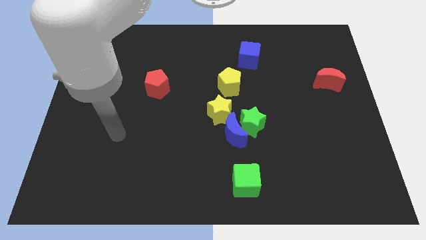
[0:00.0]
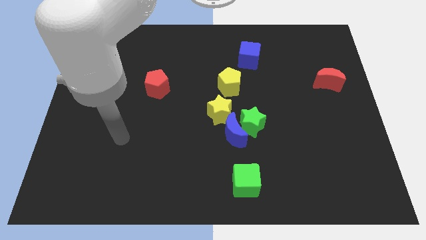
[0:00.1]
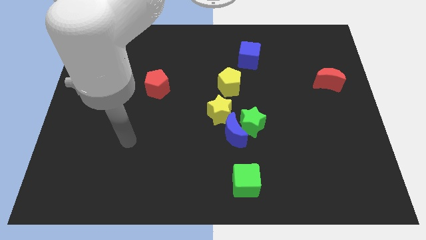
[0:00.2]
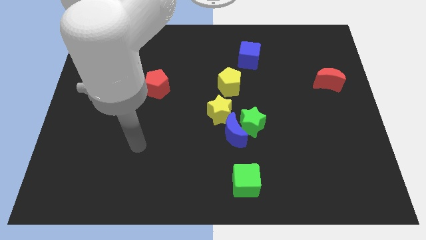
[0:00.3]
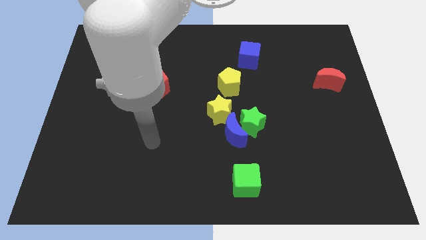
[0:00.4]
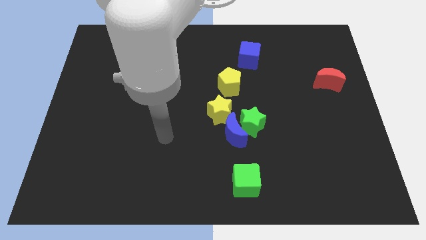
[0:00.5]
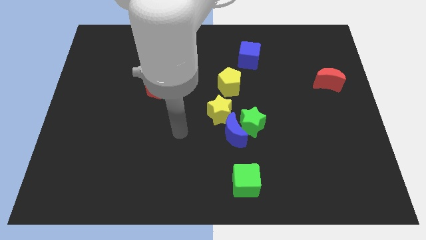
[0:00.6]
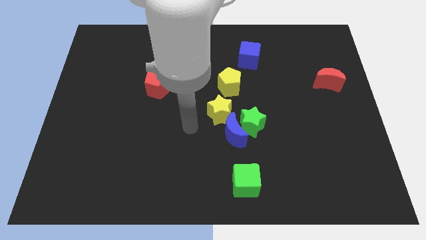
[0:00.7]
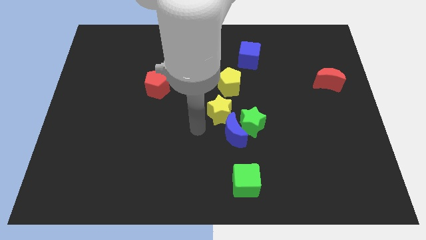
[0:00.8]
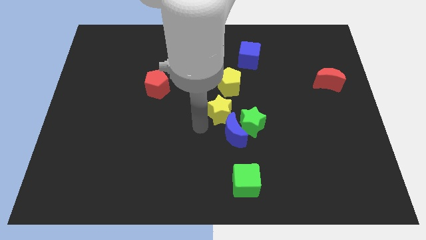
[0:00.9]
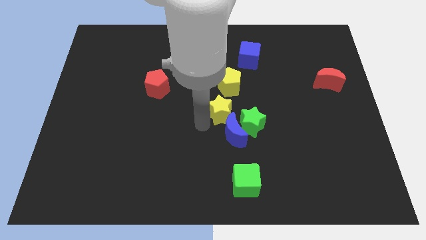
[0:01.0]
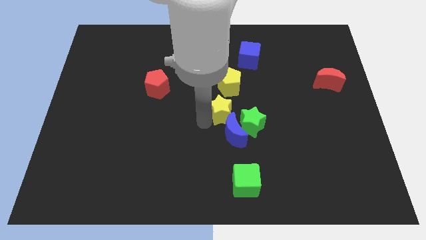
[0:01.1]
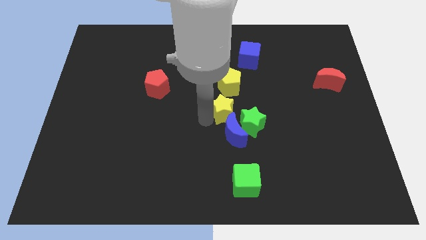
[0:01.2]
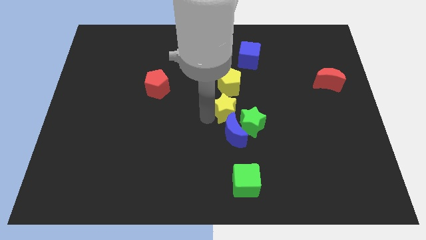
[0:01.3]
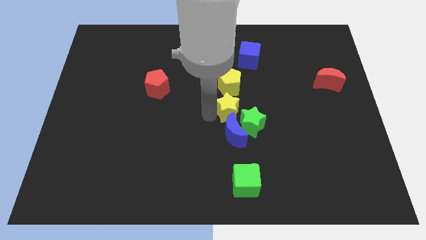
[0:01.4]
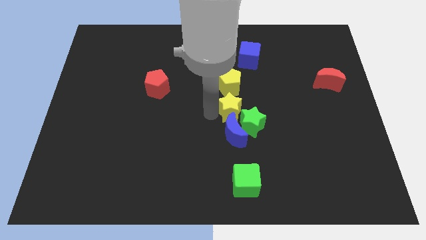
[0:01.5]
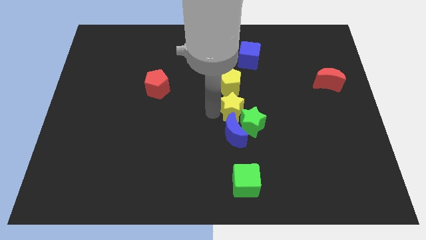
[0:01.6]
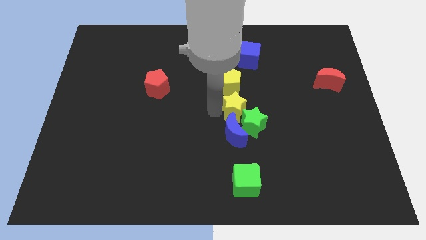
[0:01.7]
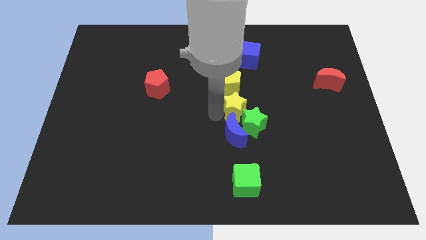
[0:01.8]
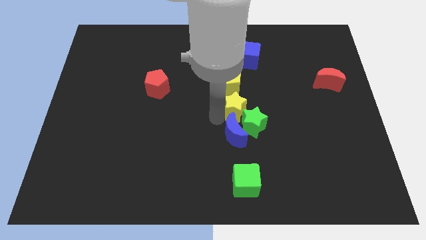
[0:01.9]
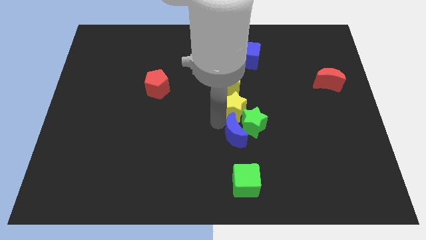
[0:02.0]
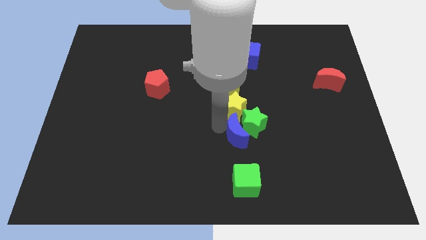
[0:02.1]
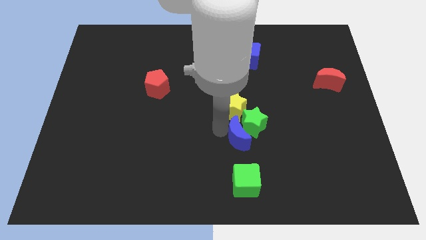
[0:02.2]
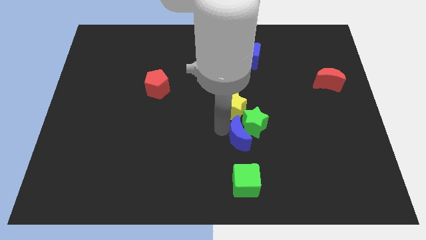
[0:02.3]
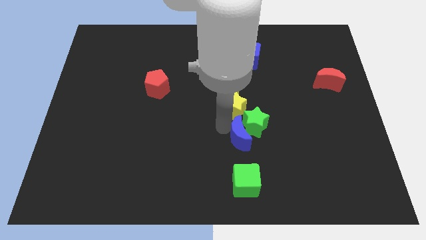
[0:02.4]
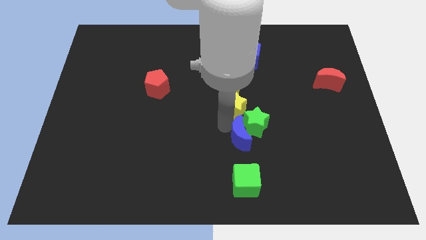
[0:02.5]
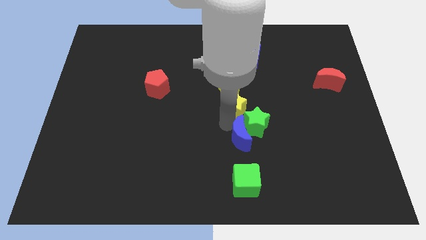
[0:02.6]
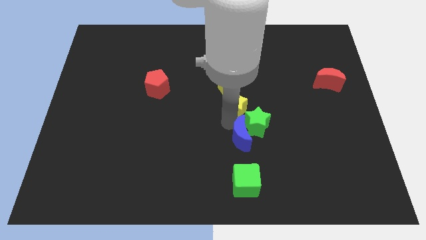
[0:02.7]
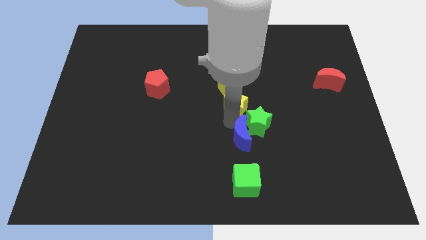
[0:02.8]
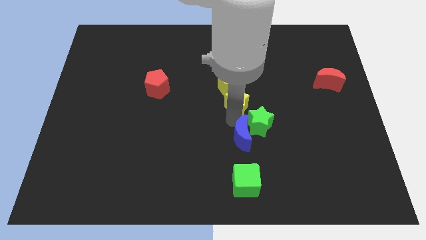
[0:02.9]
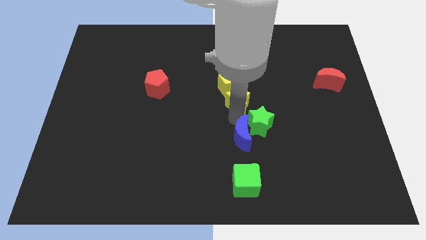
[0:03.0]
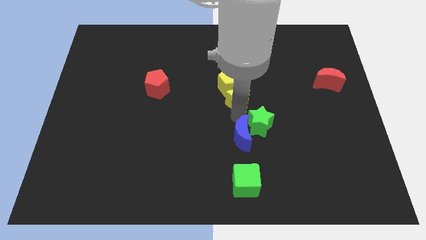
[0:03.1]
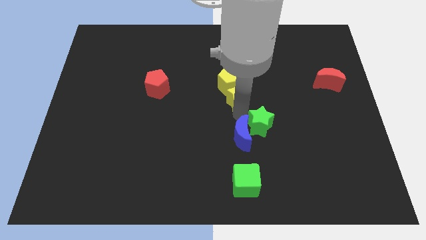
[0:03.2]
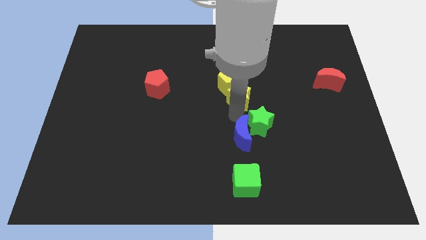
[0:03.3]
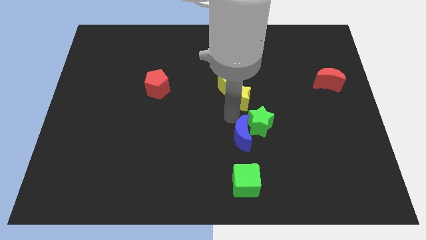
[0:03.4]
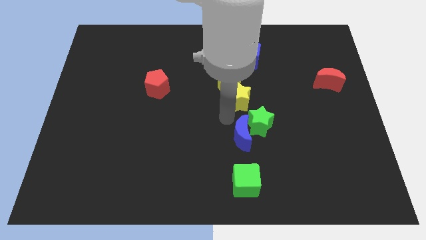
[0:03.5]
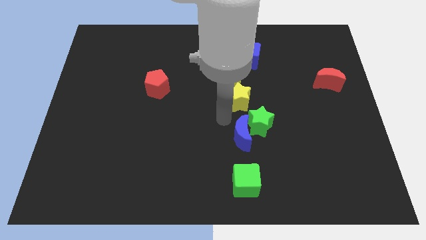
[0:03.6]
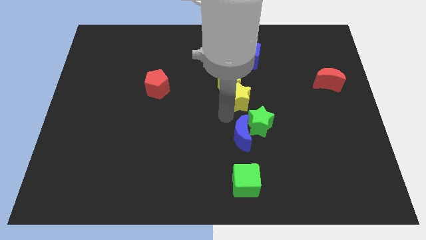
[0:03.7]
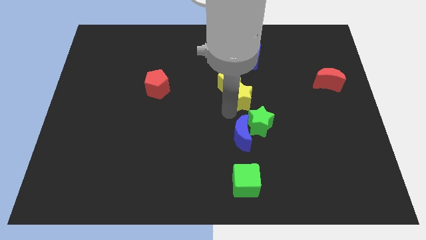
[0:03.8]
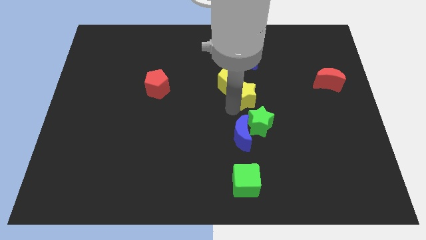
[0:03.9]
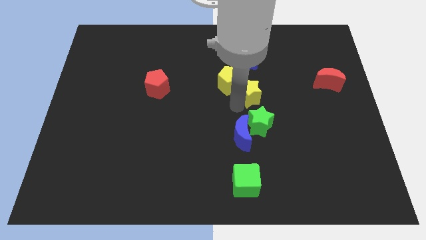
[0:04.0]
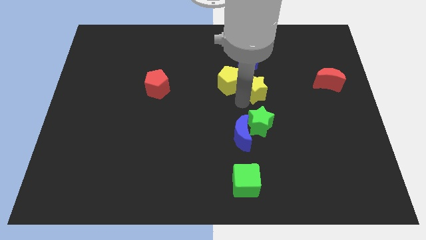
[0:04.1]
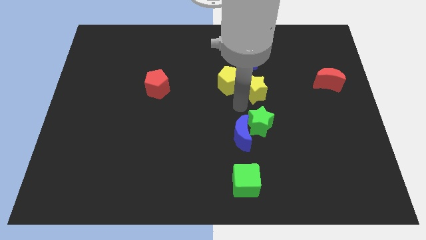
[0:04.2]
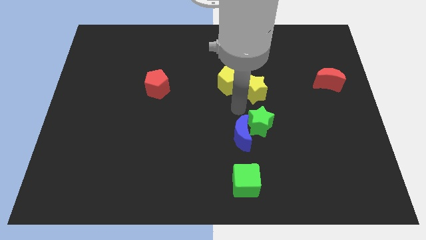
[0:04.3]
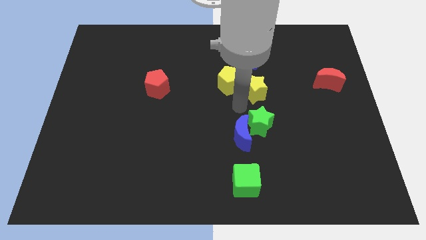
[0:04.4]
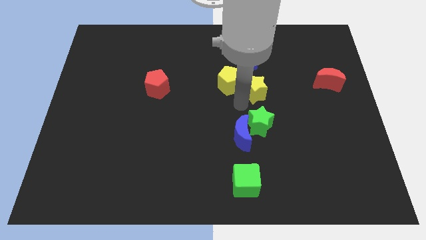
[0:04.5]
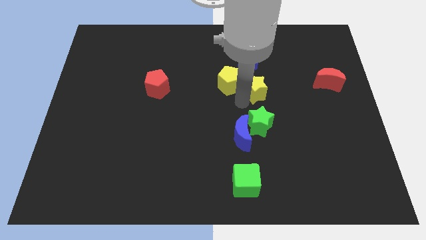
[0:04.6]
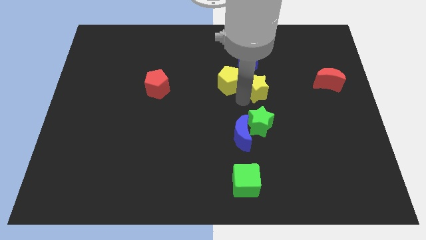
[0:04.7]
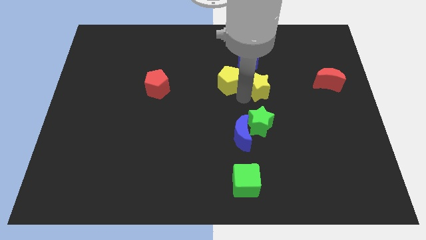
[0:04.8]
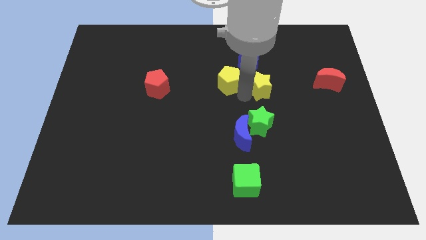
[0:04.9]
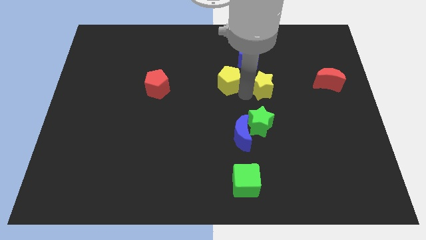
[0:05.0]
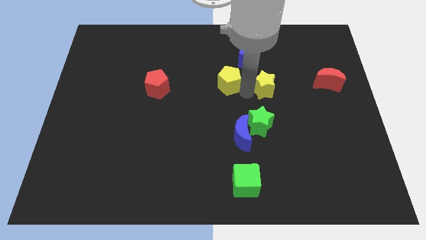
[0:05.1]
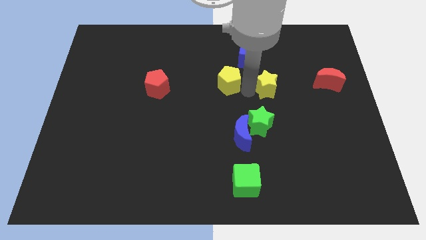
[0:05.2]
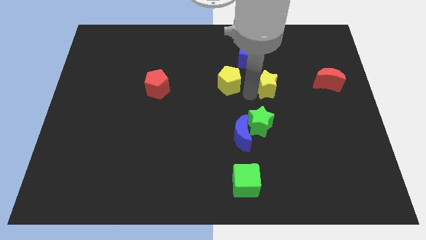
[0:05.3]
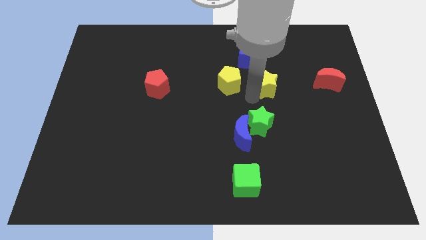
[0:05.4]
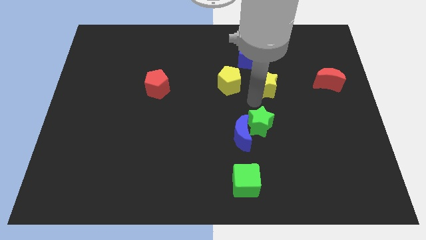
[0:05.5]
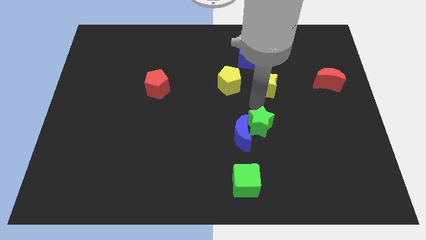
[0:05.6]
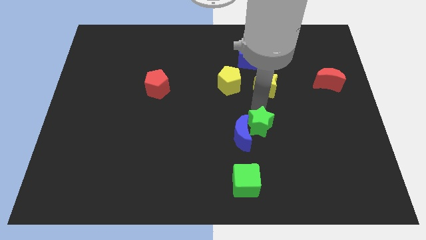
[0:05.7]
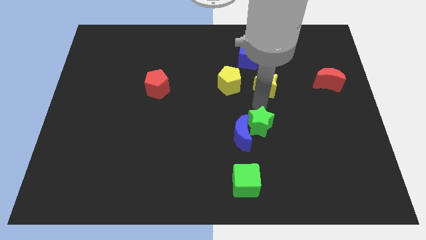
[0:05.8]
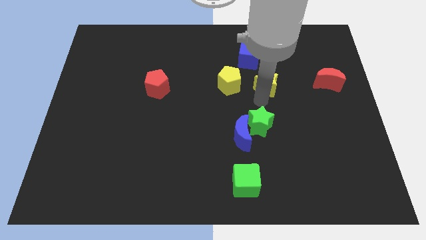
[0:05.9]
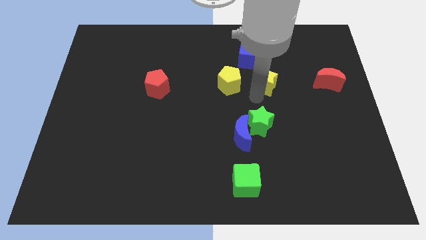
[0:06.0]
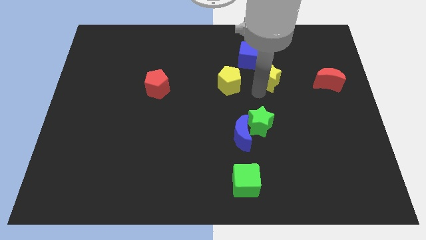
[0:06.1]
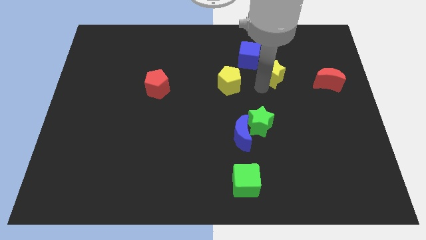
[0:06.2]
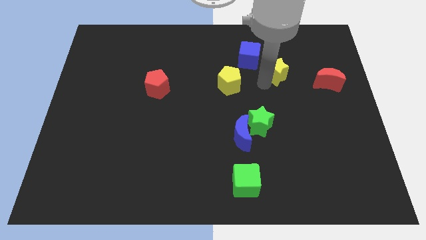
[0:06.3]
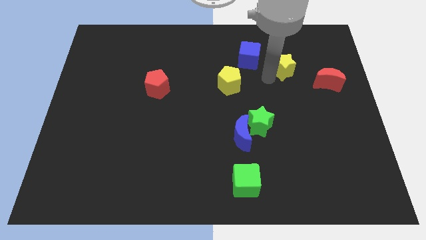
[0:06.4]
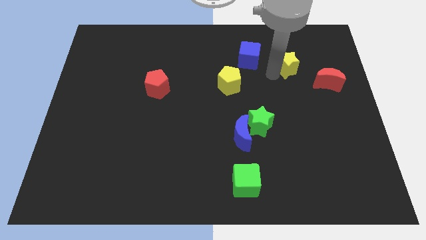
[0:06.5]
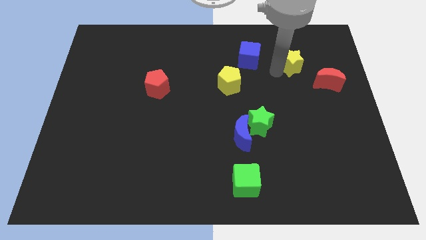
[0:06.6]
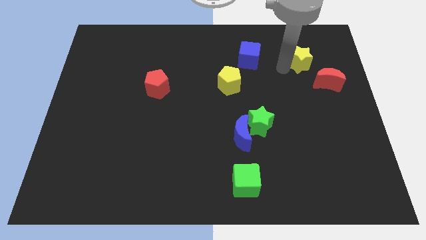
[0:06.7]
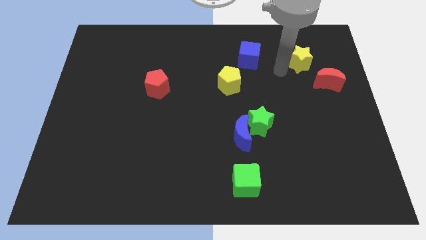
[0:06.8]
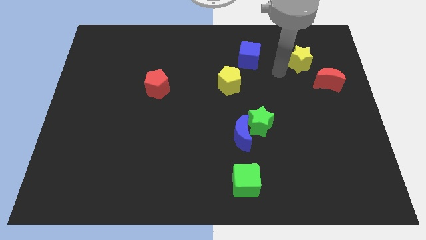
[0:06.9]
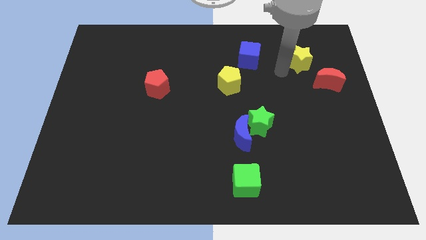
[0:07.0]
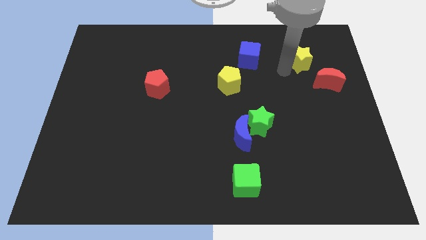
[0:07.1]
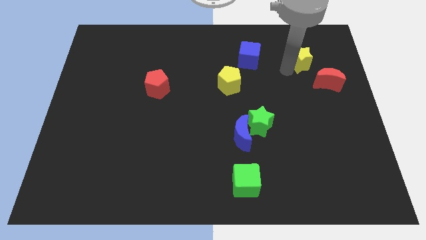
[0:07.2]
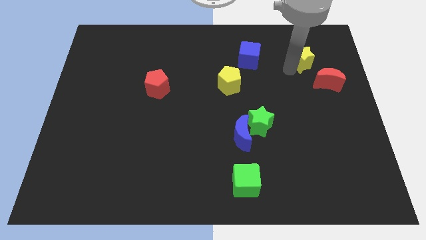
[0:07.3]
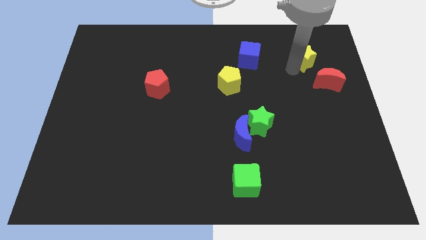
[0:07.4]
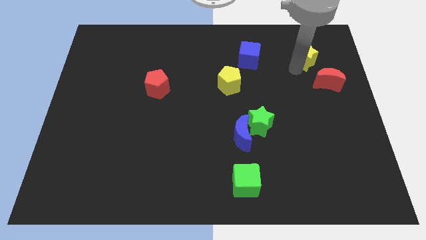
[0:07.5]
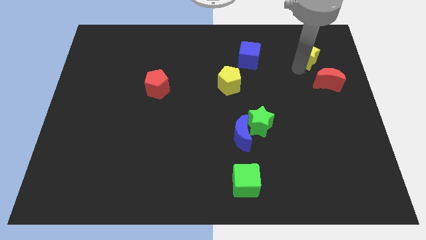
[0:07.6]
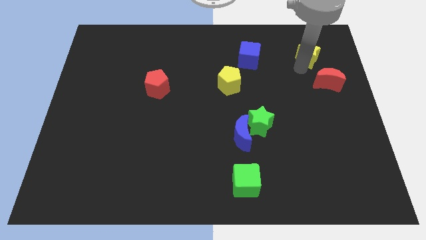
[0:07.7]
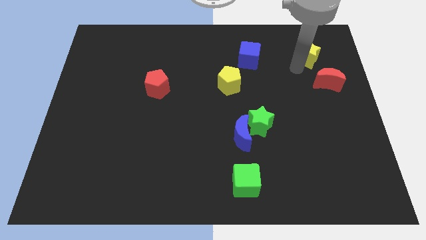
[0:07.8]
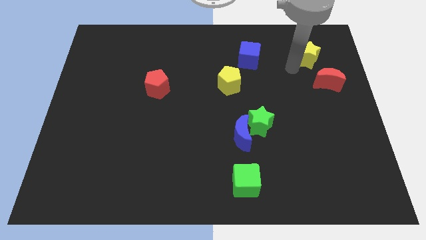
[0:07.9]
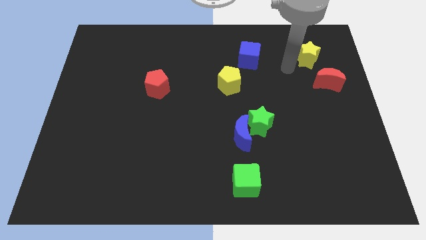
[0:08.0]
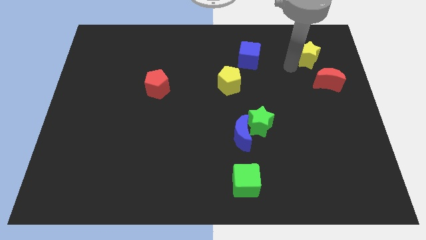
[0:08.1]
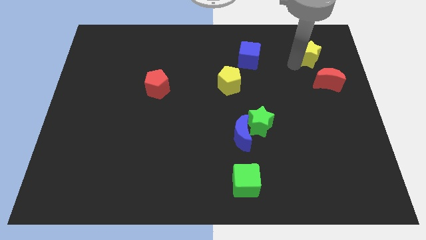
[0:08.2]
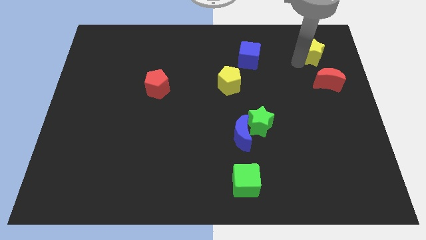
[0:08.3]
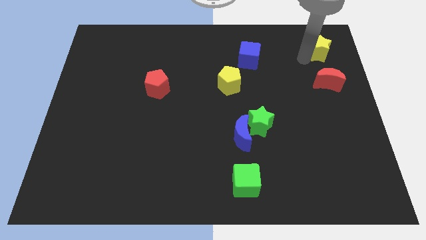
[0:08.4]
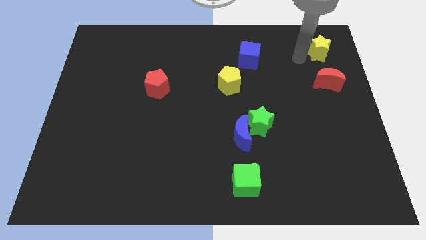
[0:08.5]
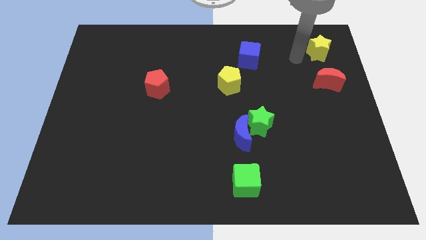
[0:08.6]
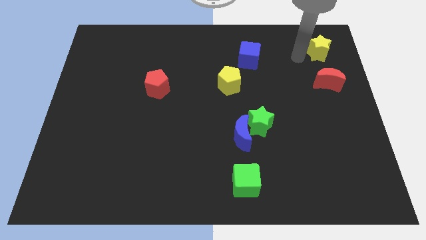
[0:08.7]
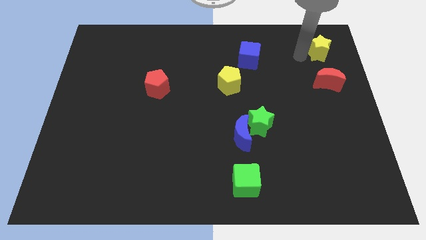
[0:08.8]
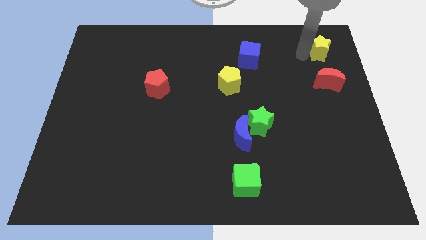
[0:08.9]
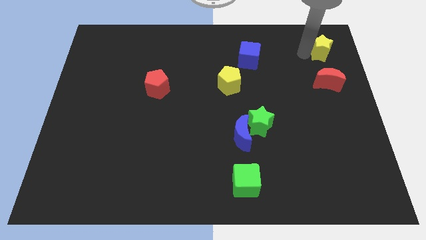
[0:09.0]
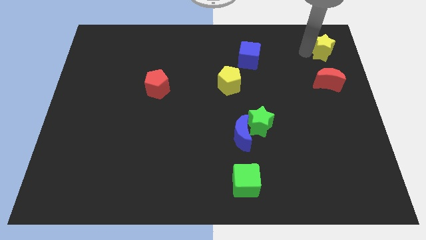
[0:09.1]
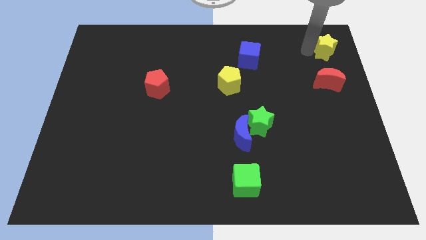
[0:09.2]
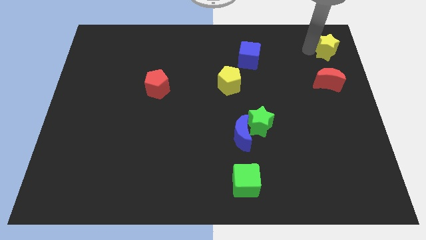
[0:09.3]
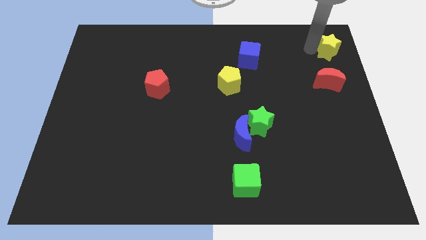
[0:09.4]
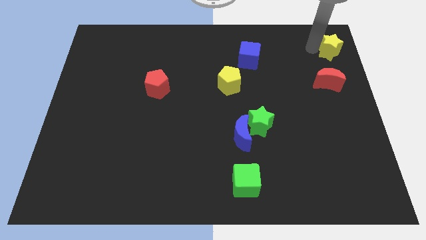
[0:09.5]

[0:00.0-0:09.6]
put the yellow star to the top right
